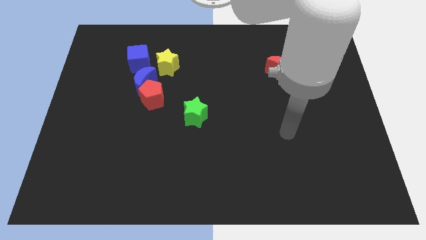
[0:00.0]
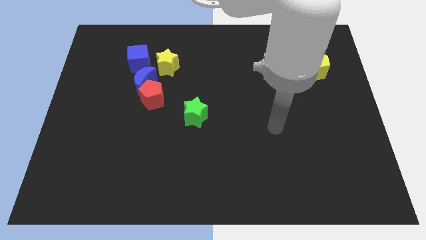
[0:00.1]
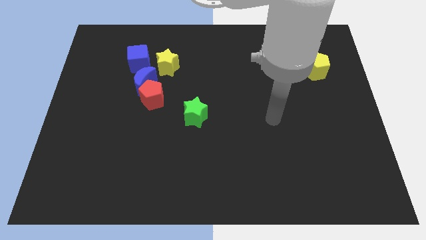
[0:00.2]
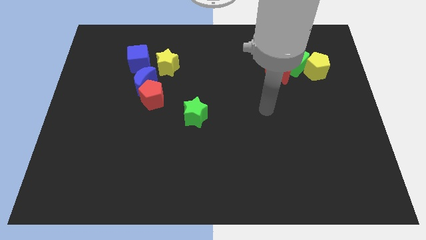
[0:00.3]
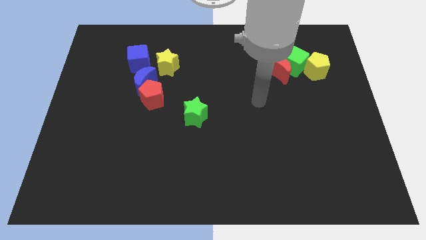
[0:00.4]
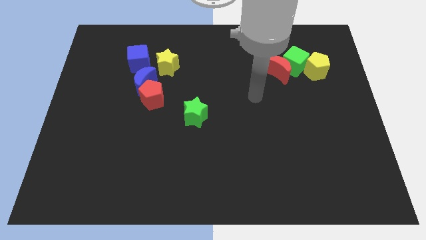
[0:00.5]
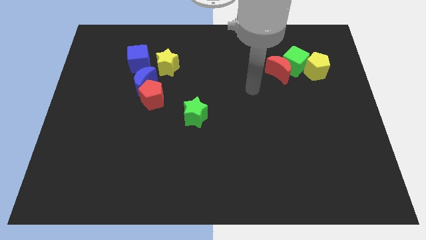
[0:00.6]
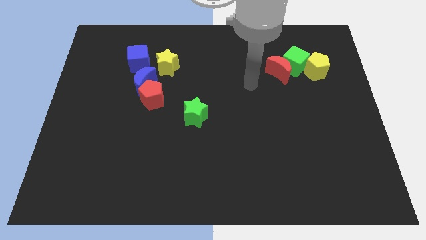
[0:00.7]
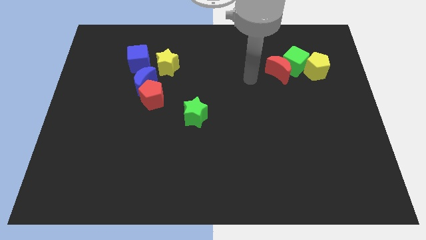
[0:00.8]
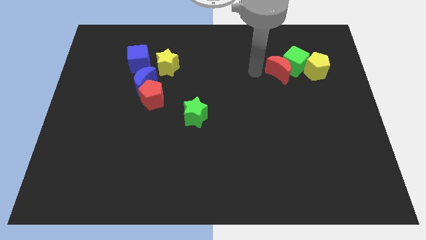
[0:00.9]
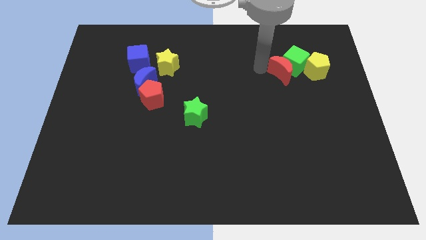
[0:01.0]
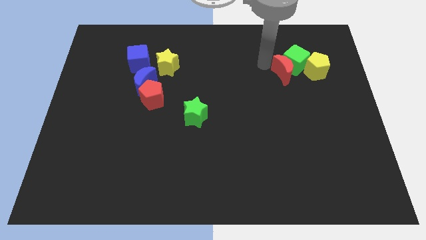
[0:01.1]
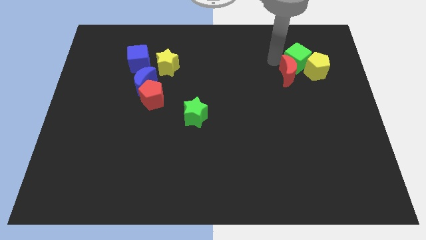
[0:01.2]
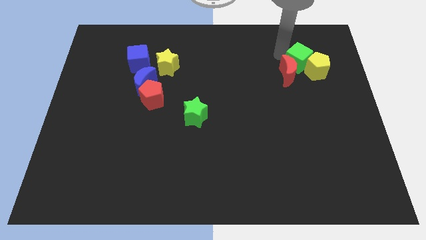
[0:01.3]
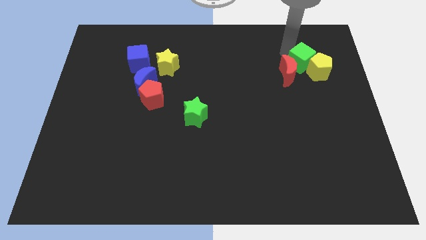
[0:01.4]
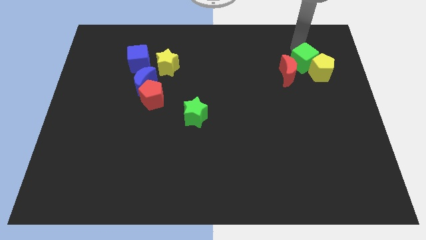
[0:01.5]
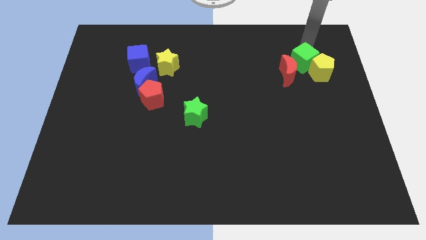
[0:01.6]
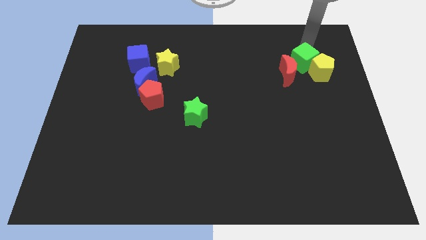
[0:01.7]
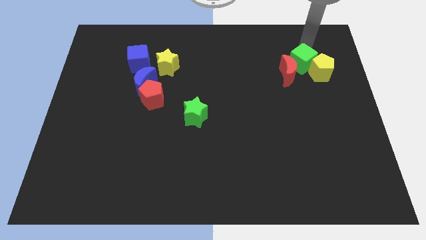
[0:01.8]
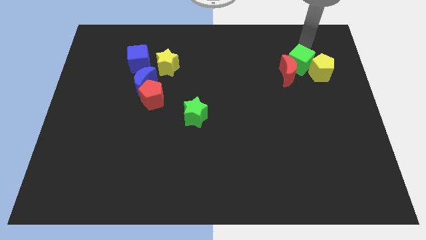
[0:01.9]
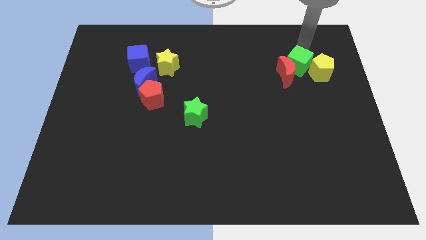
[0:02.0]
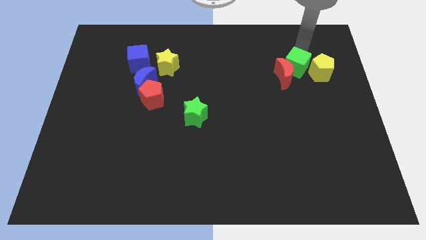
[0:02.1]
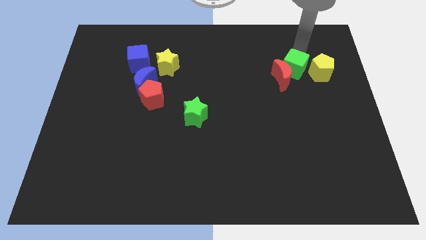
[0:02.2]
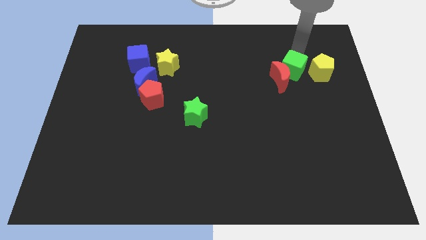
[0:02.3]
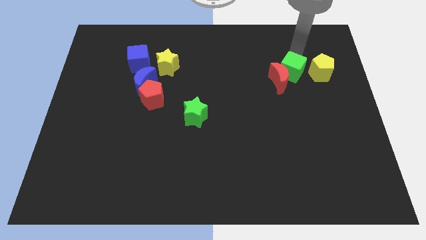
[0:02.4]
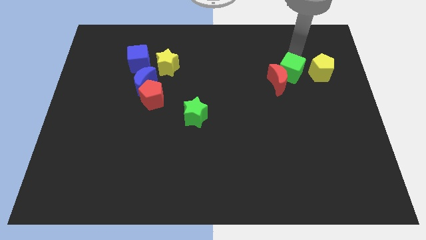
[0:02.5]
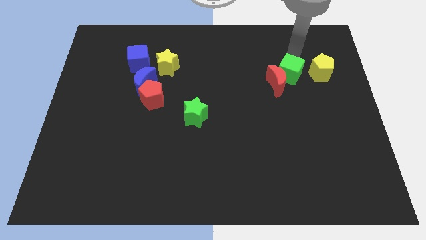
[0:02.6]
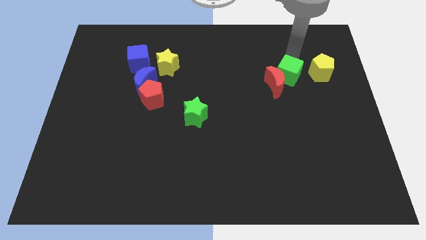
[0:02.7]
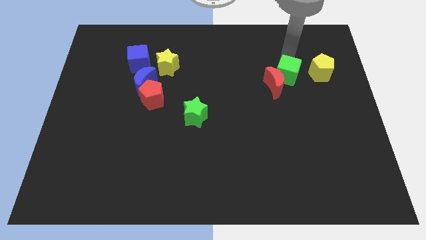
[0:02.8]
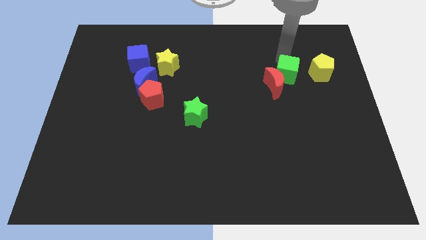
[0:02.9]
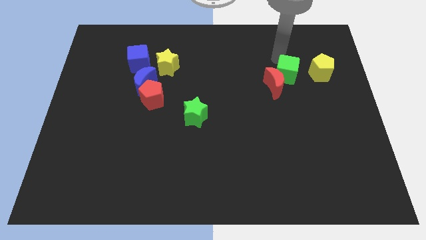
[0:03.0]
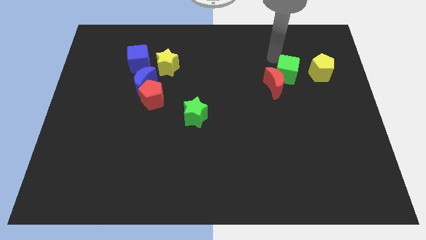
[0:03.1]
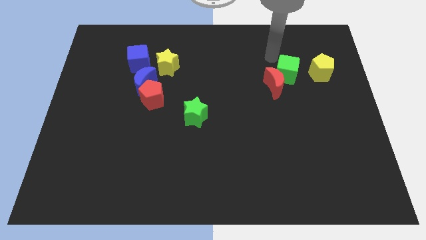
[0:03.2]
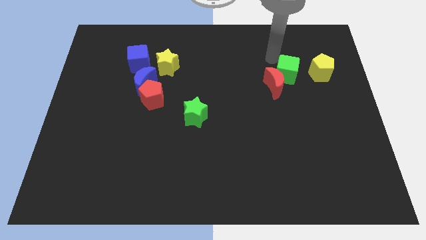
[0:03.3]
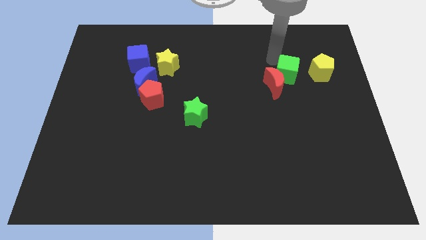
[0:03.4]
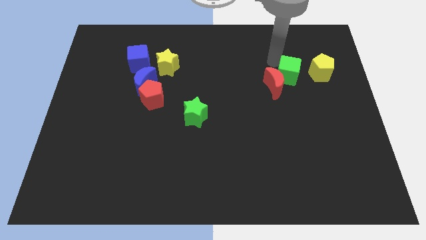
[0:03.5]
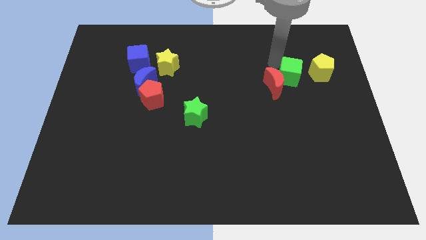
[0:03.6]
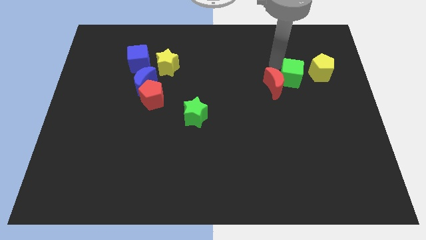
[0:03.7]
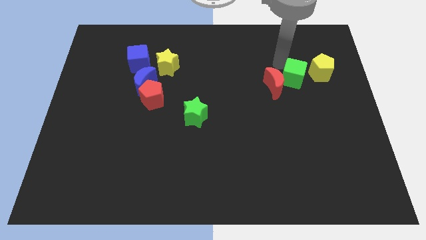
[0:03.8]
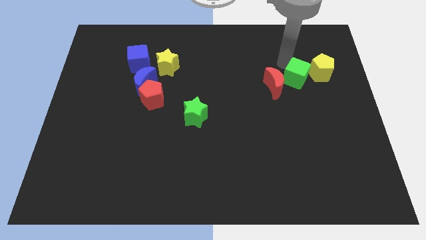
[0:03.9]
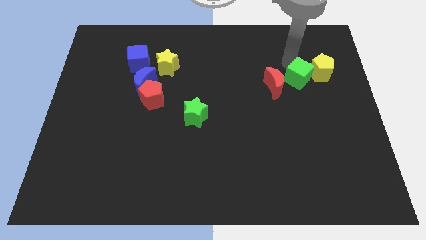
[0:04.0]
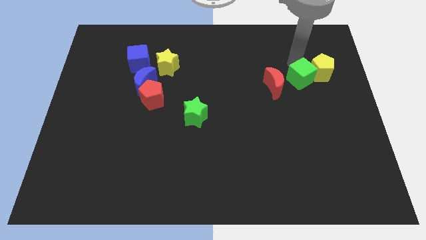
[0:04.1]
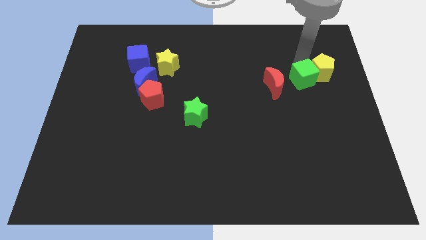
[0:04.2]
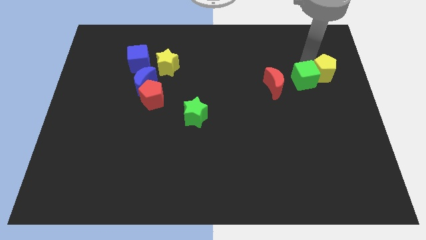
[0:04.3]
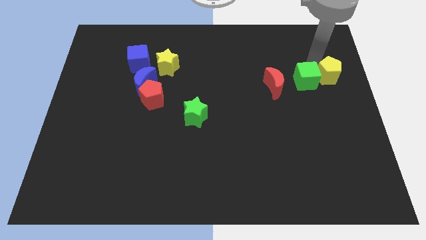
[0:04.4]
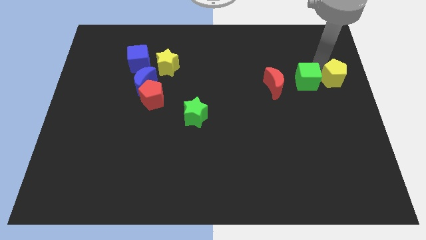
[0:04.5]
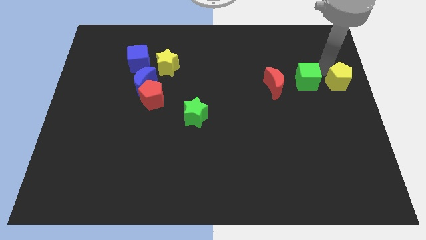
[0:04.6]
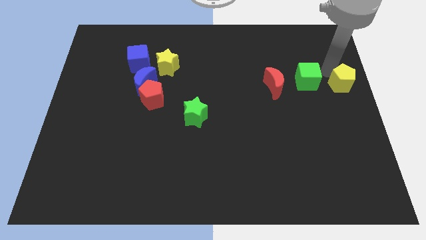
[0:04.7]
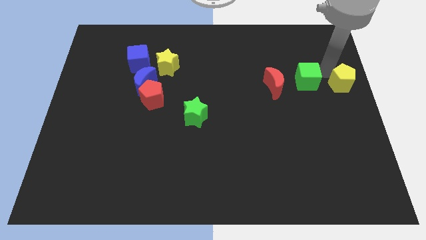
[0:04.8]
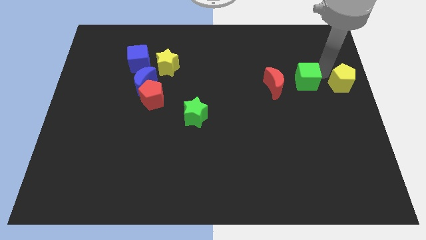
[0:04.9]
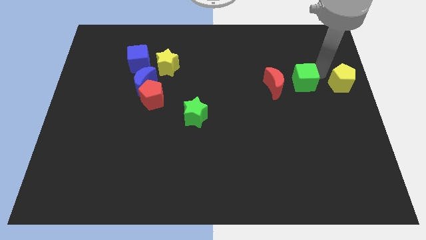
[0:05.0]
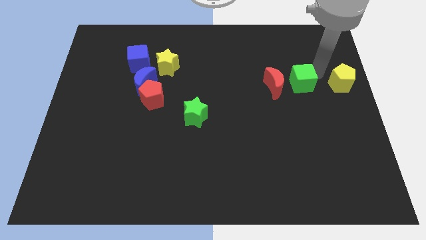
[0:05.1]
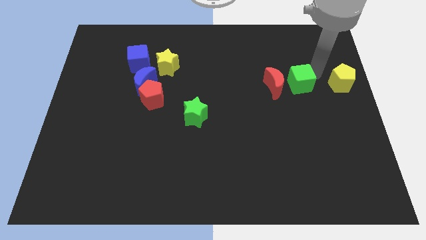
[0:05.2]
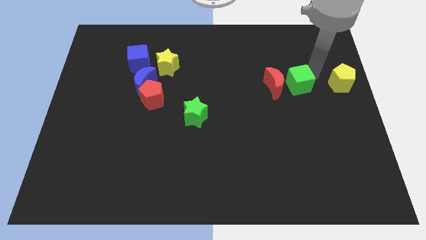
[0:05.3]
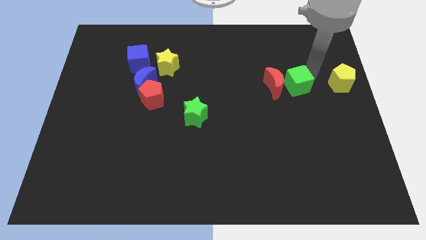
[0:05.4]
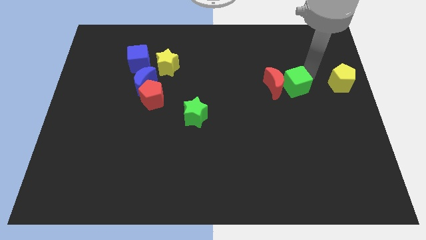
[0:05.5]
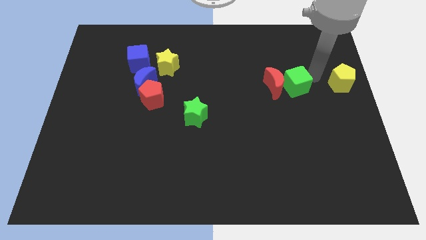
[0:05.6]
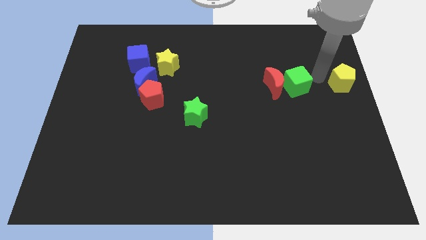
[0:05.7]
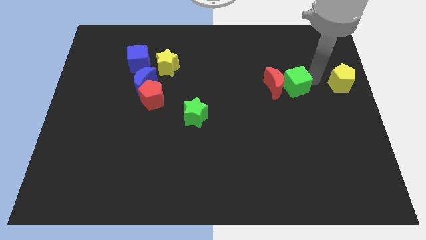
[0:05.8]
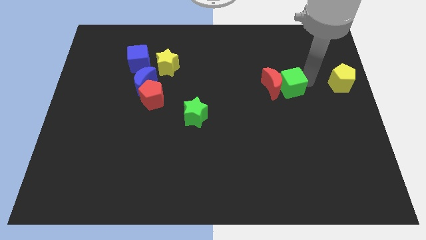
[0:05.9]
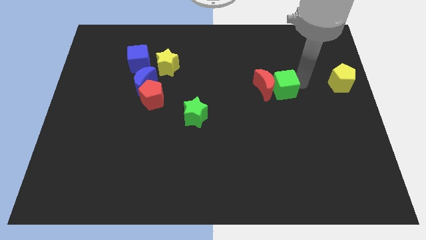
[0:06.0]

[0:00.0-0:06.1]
push the green cube down and then left a bit

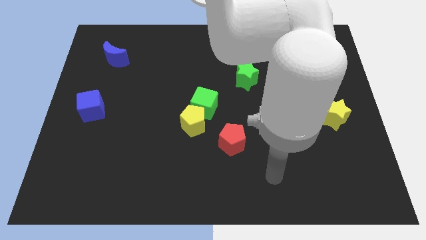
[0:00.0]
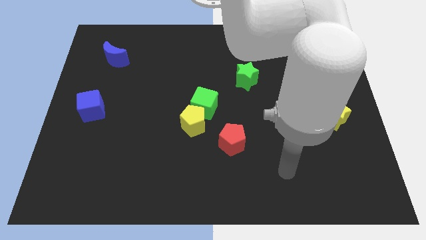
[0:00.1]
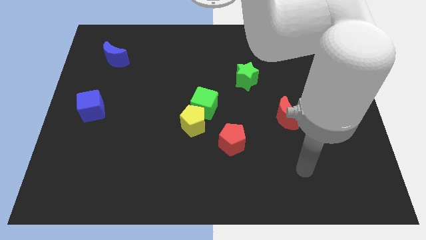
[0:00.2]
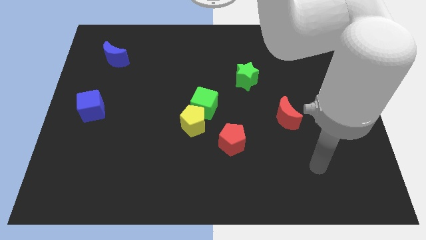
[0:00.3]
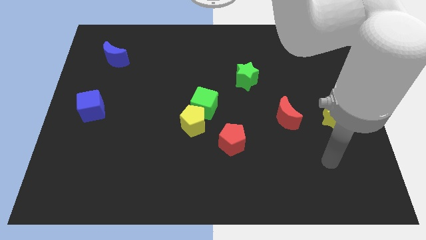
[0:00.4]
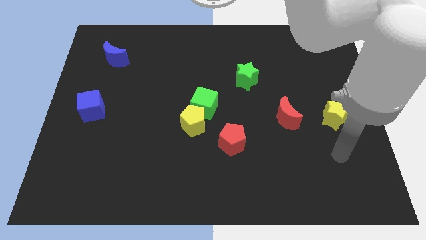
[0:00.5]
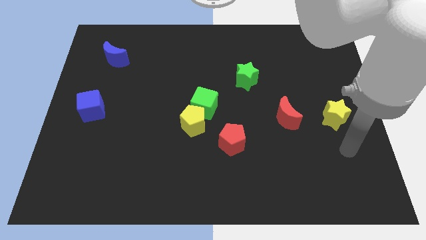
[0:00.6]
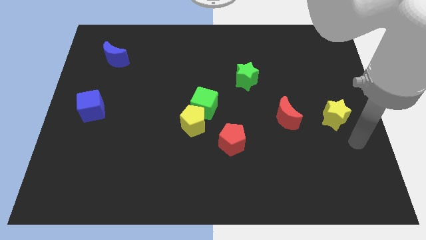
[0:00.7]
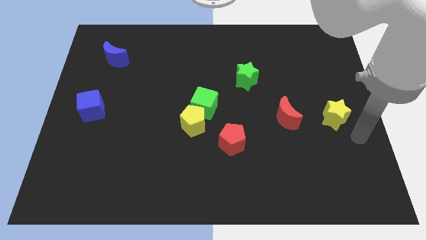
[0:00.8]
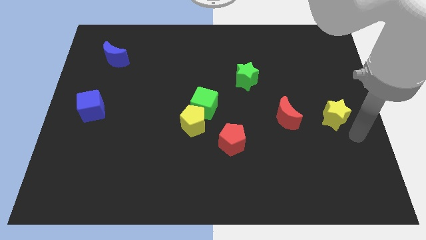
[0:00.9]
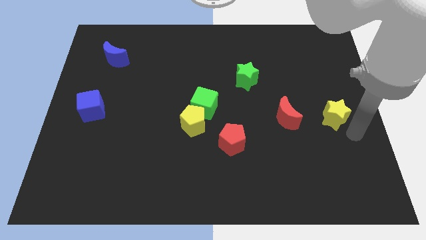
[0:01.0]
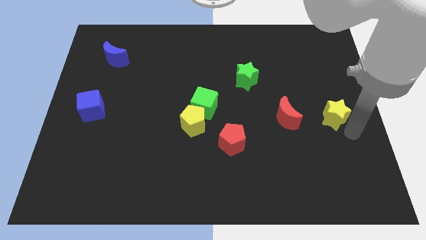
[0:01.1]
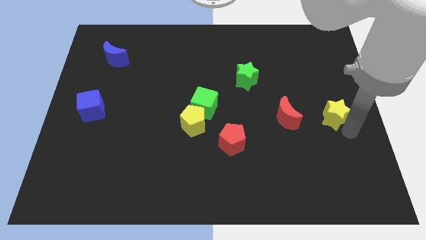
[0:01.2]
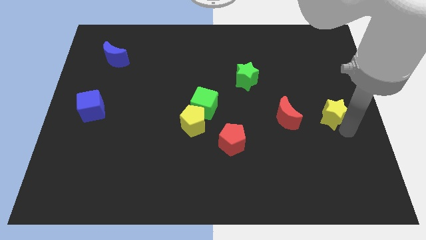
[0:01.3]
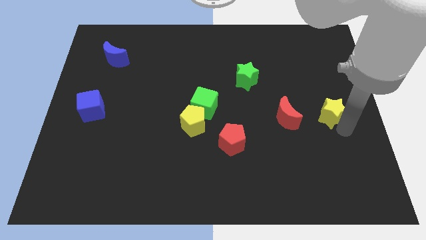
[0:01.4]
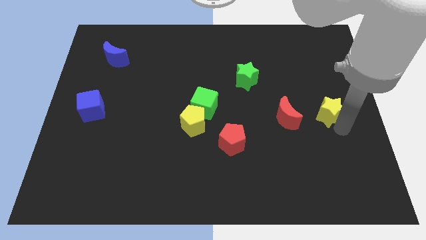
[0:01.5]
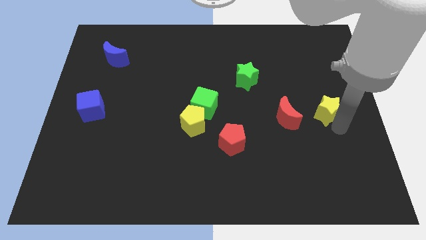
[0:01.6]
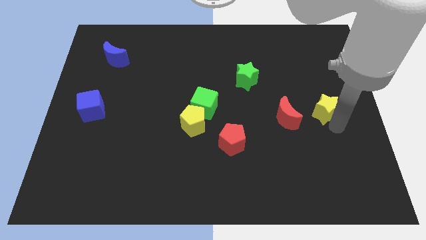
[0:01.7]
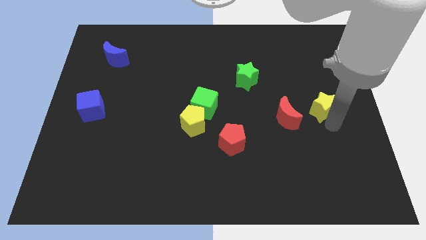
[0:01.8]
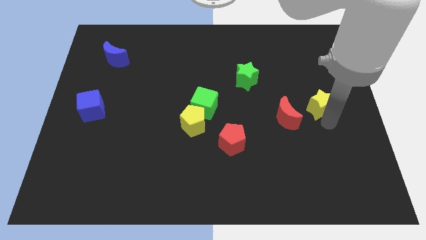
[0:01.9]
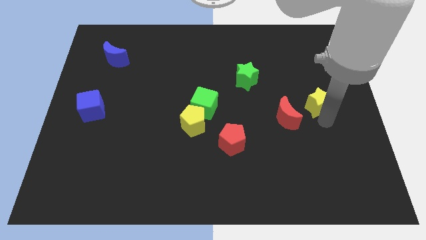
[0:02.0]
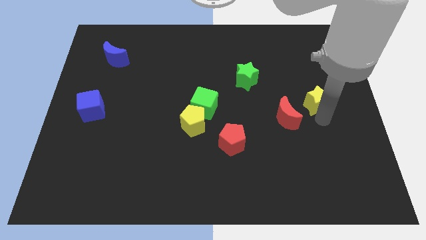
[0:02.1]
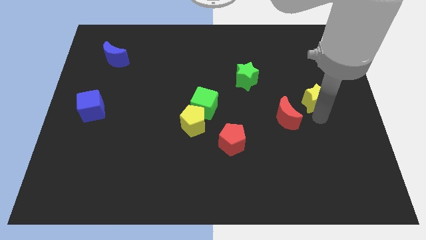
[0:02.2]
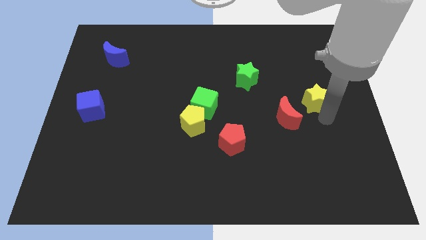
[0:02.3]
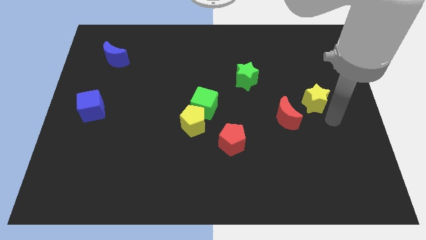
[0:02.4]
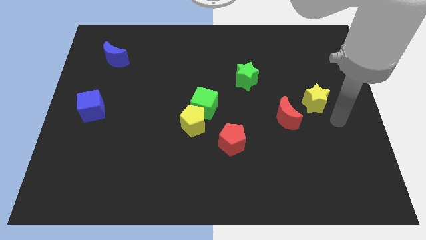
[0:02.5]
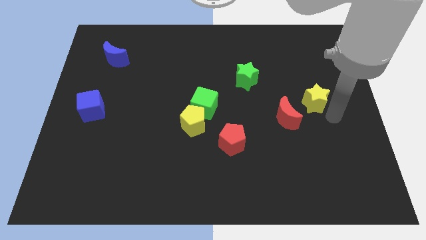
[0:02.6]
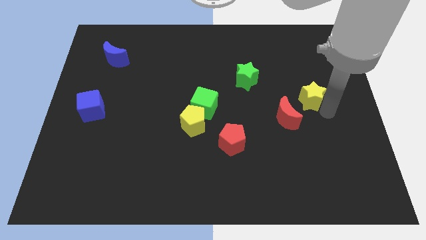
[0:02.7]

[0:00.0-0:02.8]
push the yellow star slightly up and left
